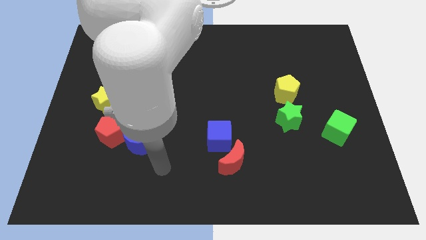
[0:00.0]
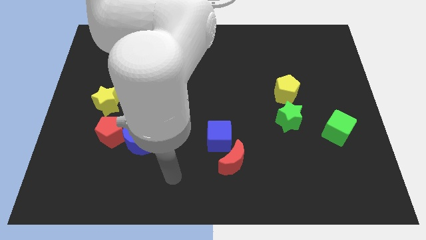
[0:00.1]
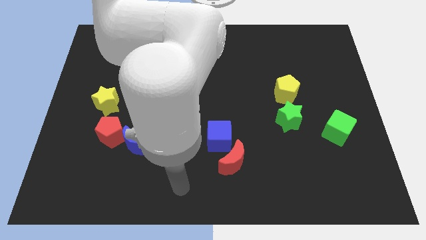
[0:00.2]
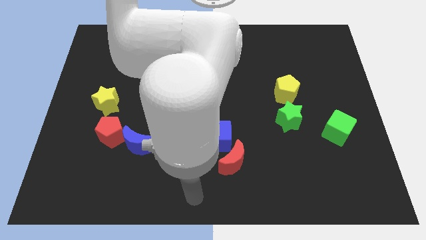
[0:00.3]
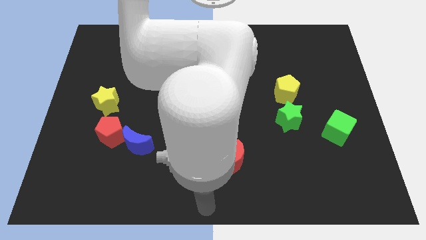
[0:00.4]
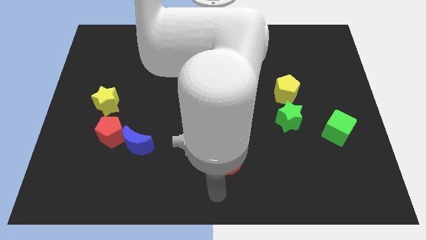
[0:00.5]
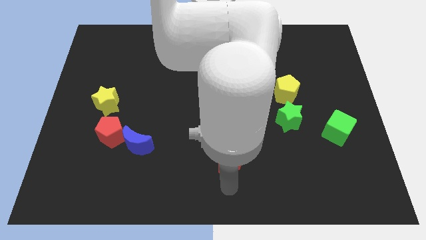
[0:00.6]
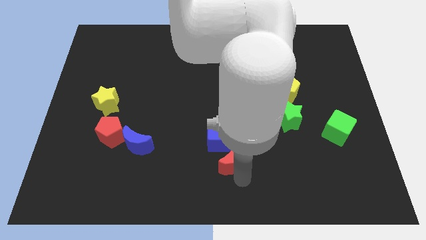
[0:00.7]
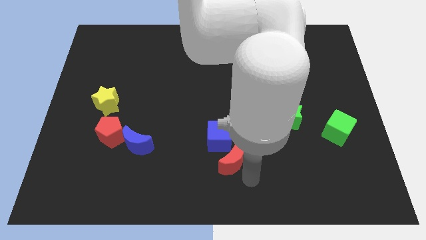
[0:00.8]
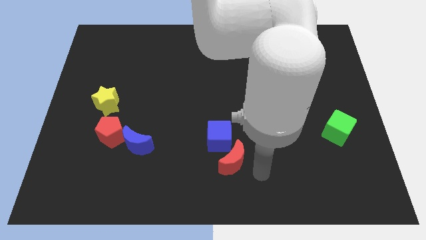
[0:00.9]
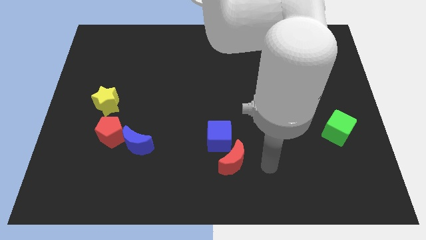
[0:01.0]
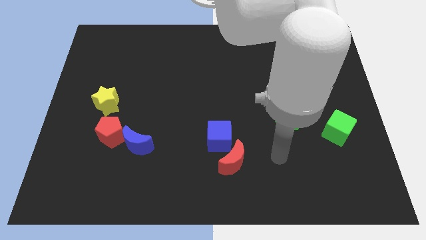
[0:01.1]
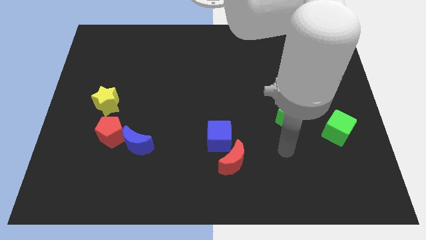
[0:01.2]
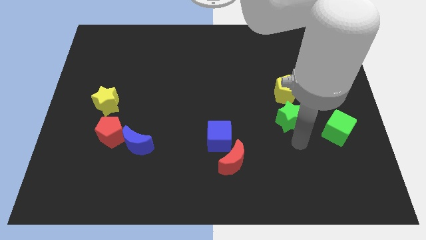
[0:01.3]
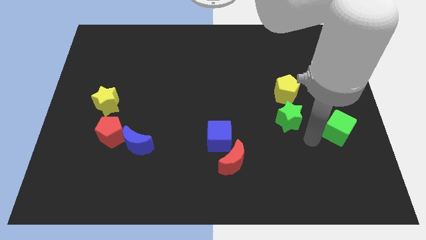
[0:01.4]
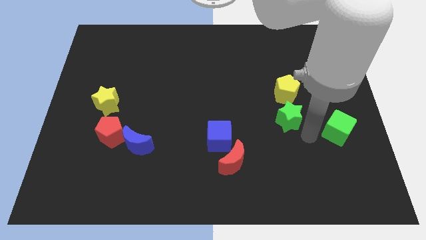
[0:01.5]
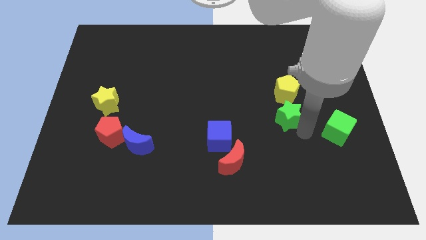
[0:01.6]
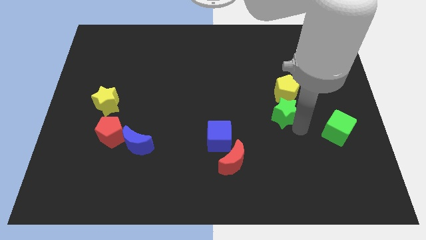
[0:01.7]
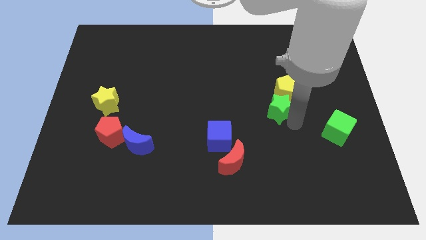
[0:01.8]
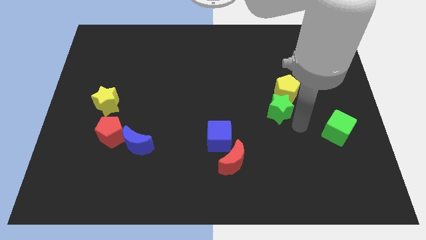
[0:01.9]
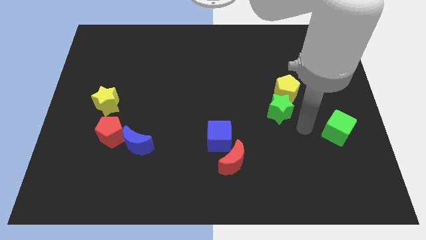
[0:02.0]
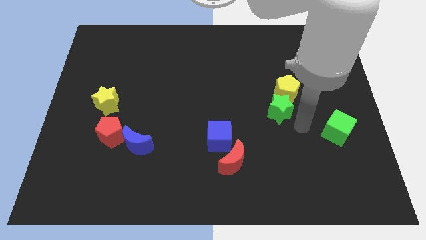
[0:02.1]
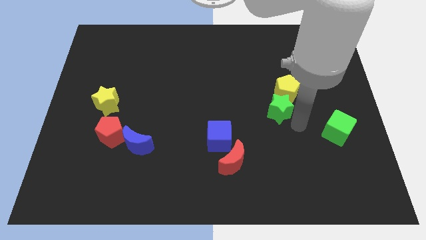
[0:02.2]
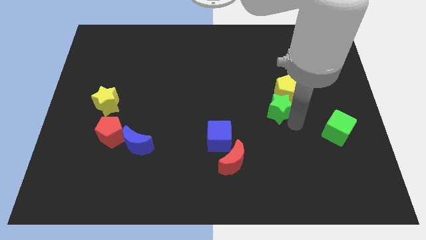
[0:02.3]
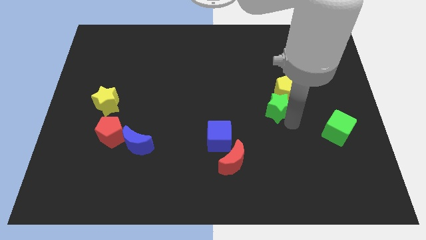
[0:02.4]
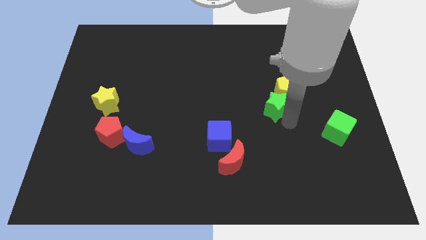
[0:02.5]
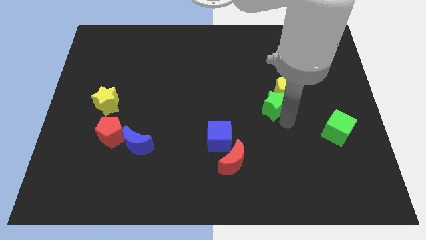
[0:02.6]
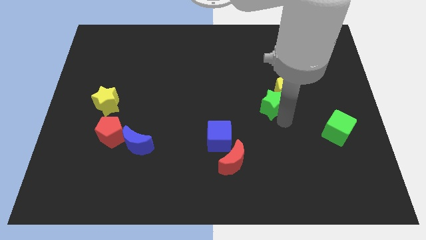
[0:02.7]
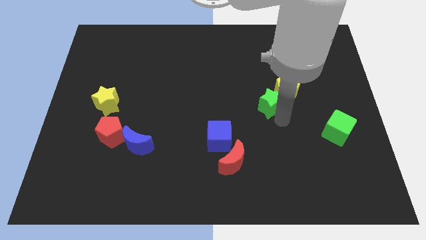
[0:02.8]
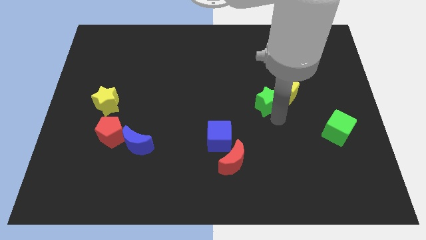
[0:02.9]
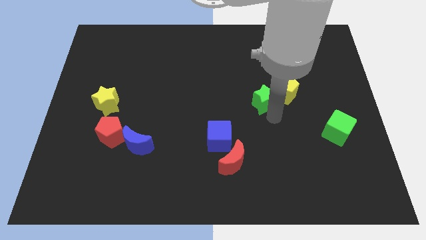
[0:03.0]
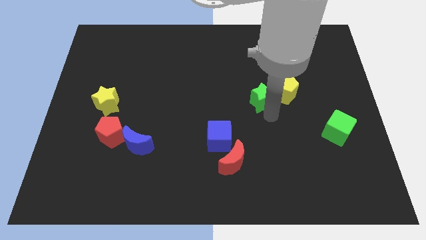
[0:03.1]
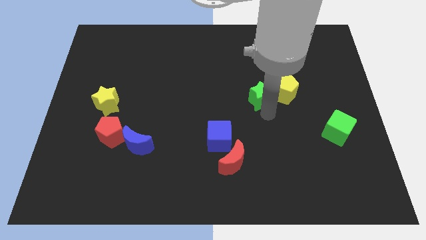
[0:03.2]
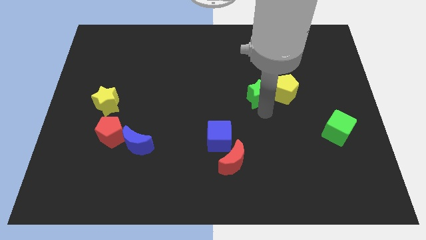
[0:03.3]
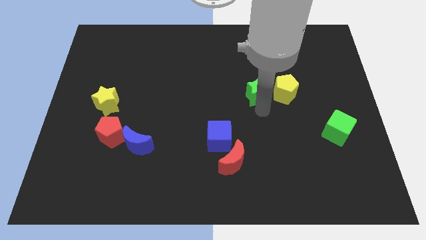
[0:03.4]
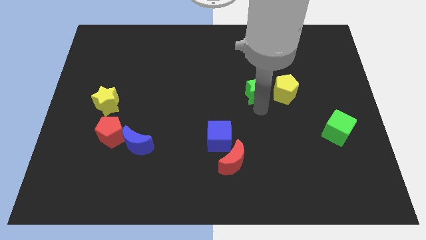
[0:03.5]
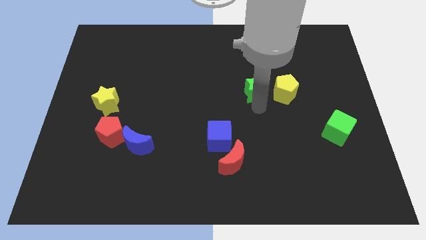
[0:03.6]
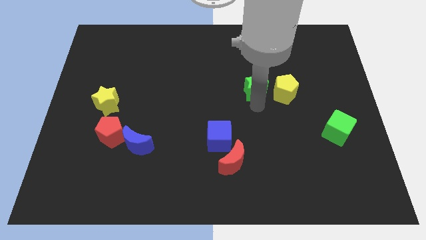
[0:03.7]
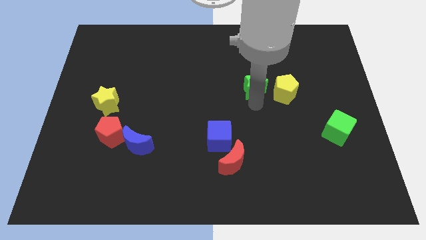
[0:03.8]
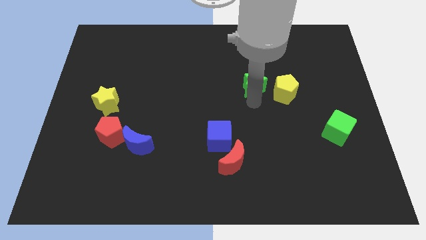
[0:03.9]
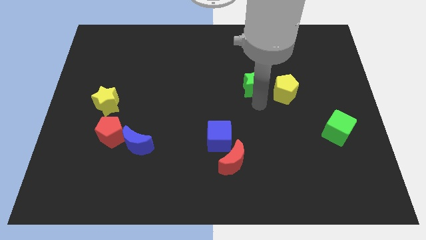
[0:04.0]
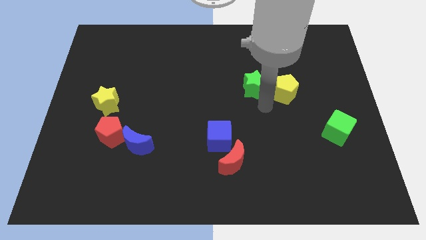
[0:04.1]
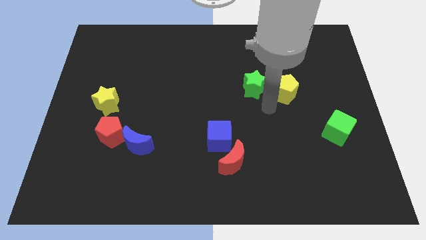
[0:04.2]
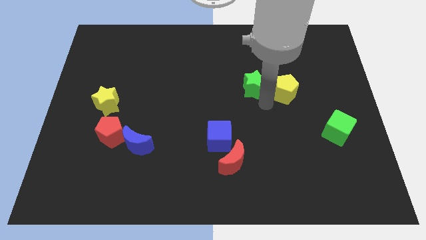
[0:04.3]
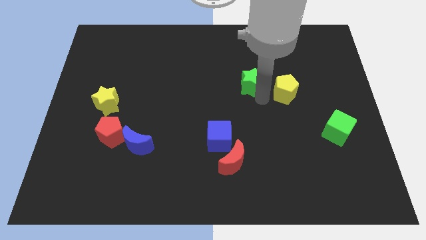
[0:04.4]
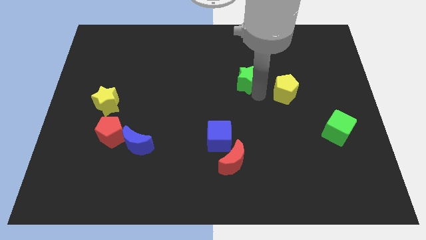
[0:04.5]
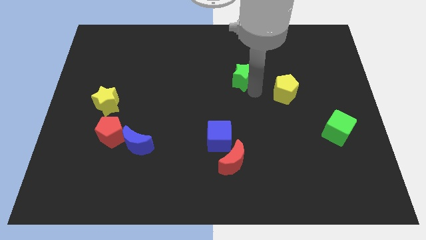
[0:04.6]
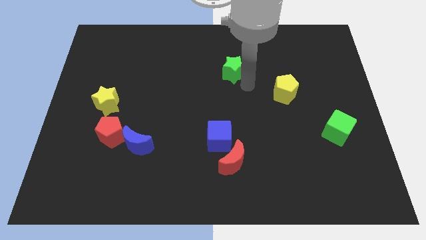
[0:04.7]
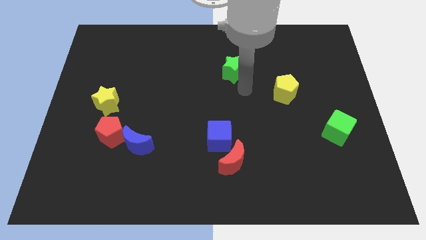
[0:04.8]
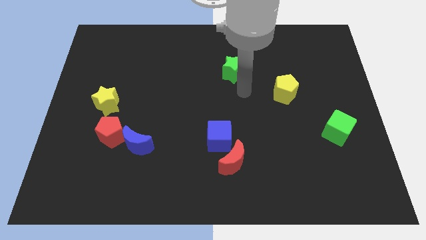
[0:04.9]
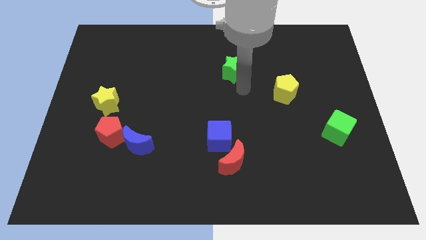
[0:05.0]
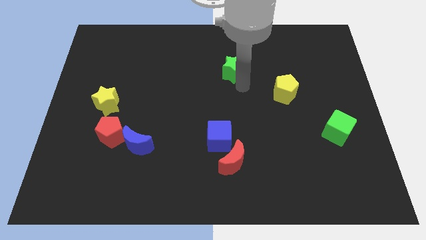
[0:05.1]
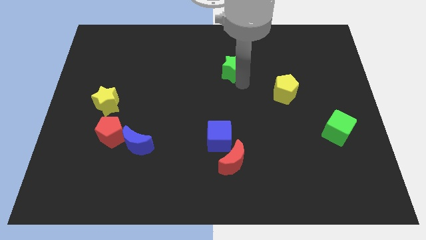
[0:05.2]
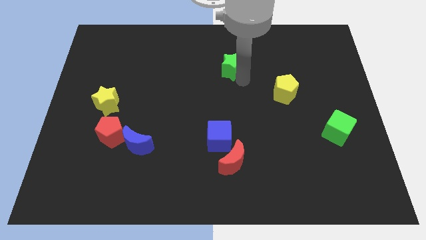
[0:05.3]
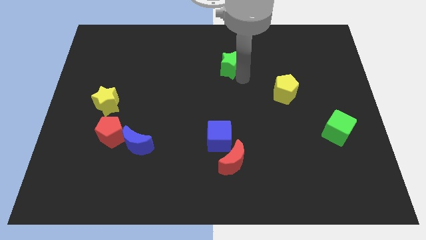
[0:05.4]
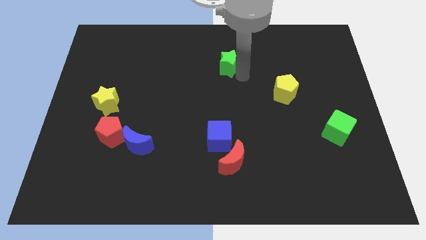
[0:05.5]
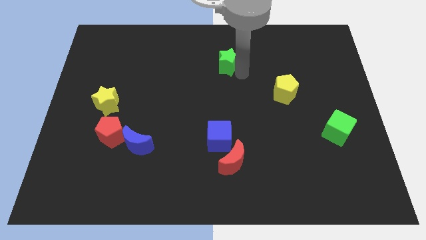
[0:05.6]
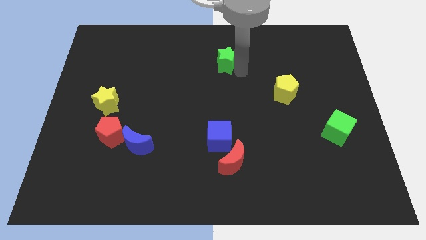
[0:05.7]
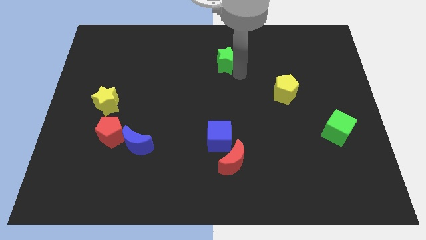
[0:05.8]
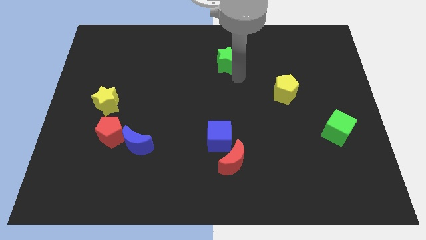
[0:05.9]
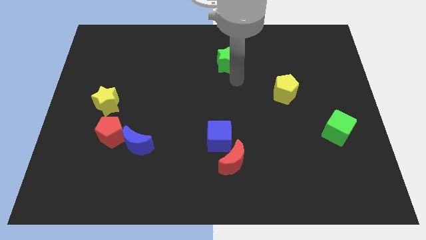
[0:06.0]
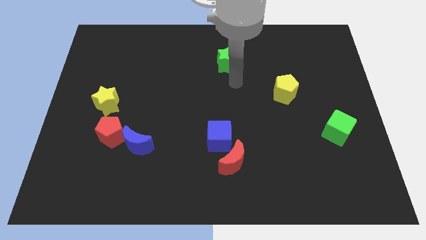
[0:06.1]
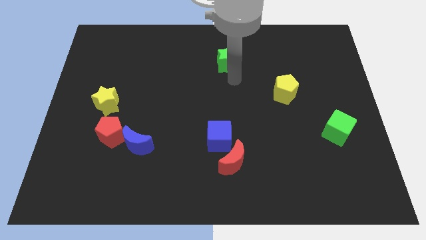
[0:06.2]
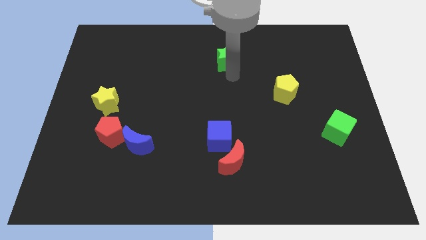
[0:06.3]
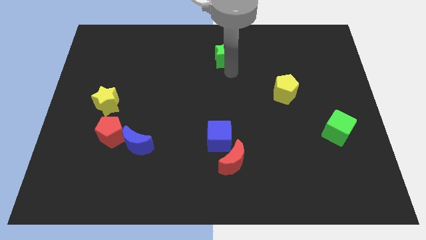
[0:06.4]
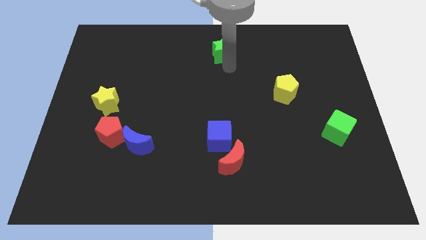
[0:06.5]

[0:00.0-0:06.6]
slide the green star to the top
